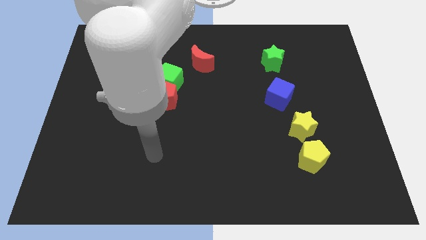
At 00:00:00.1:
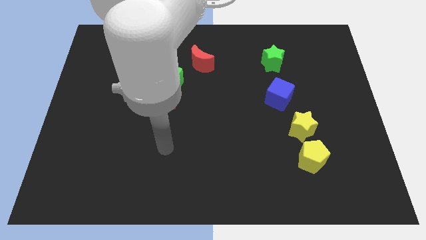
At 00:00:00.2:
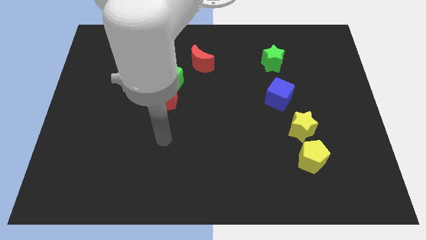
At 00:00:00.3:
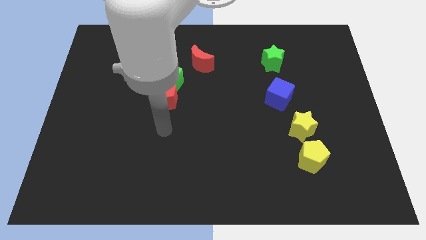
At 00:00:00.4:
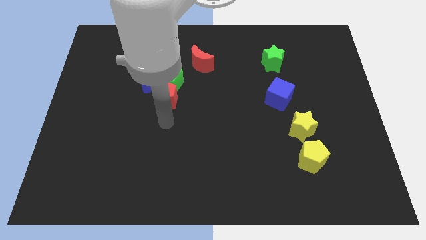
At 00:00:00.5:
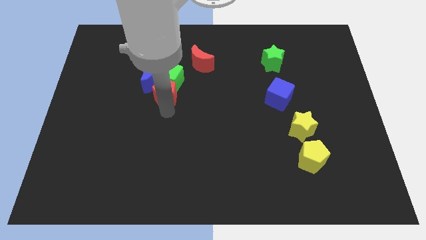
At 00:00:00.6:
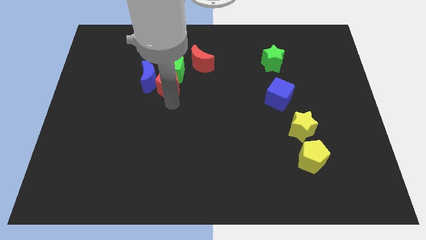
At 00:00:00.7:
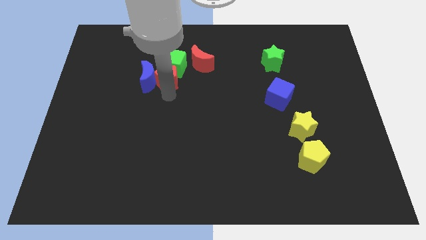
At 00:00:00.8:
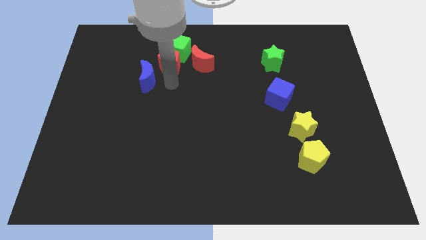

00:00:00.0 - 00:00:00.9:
separate the blue moon from the green cube and red pentagon

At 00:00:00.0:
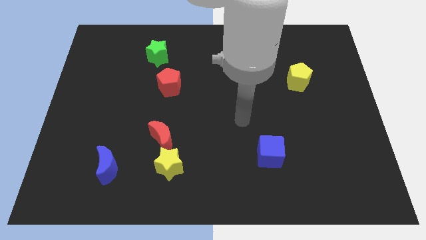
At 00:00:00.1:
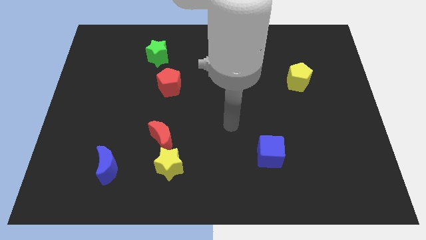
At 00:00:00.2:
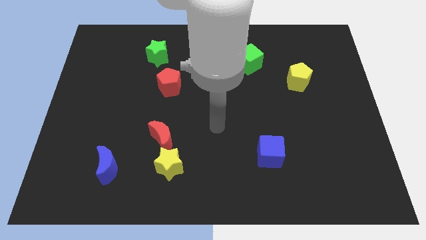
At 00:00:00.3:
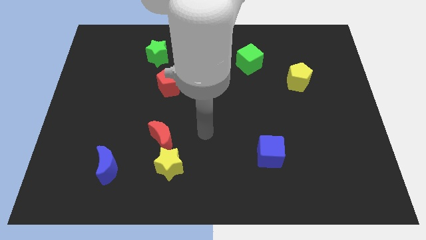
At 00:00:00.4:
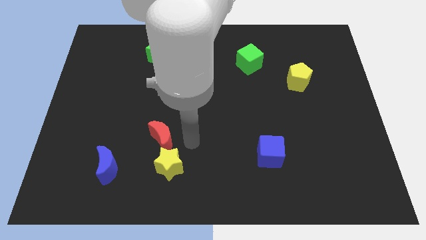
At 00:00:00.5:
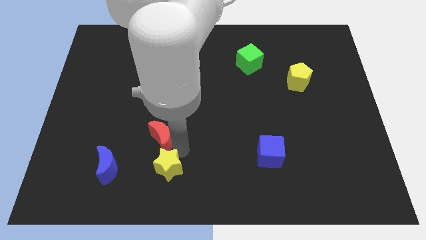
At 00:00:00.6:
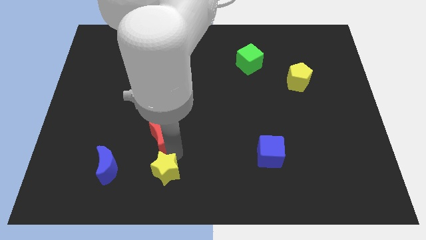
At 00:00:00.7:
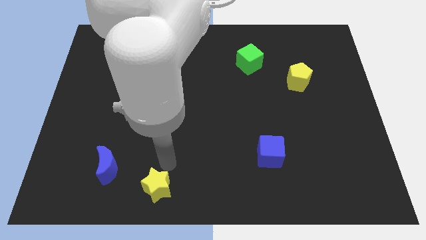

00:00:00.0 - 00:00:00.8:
pull the red moon apart from the yellow star

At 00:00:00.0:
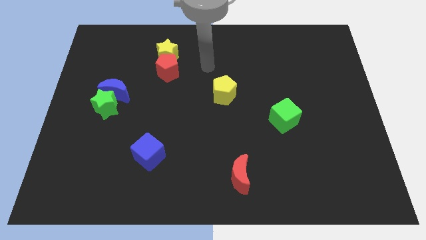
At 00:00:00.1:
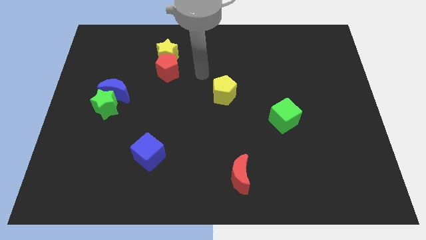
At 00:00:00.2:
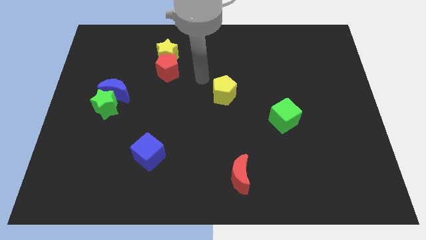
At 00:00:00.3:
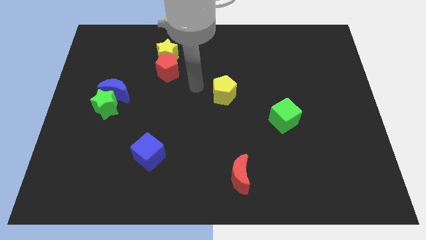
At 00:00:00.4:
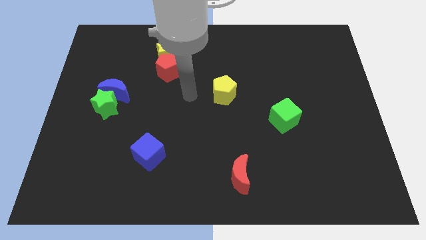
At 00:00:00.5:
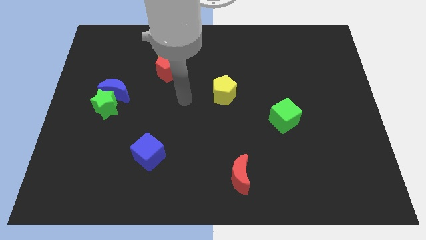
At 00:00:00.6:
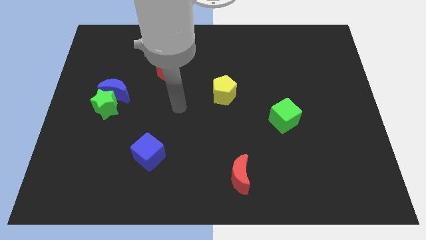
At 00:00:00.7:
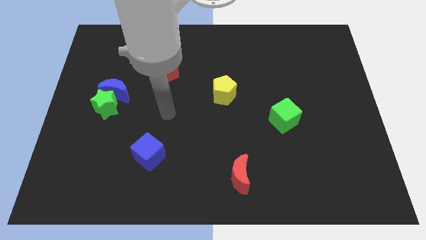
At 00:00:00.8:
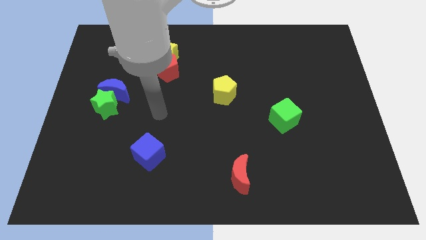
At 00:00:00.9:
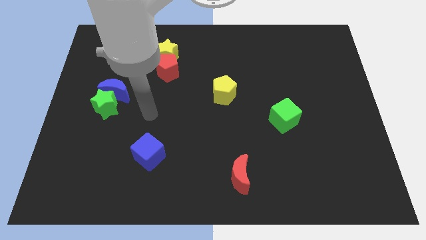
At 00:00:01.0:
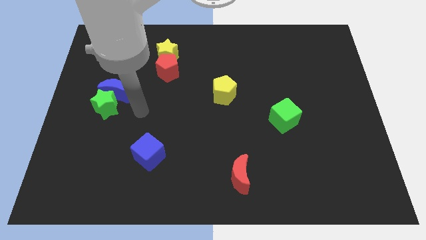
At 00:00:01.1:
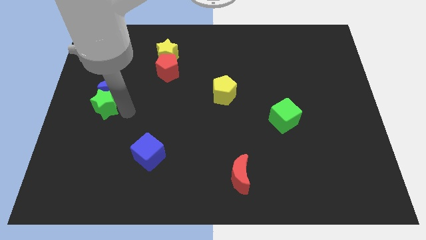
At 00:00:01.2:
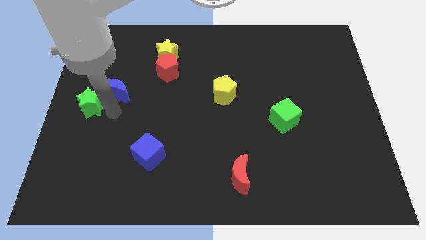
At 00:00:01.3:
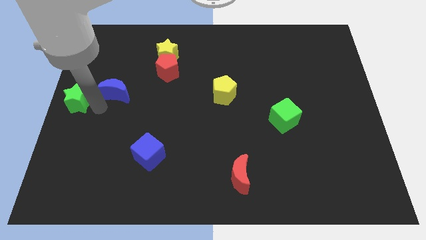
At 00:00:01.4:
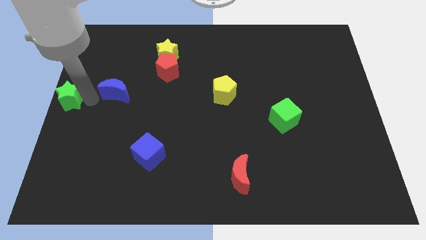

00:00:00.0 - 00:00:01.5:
separate the blue moon from the green star

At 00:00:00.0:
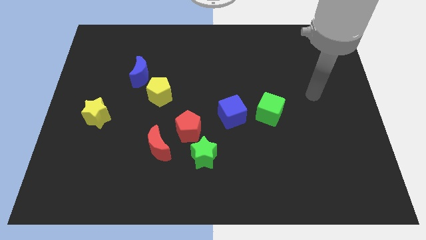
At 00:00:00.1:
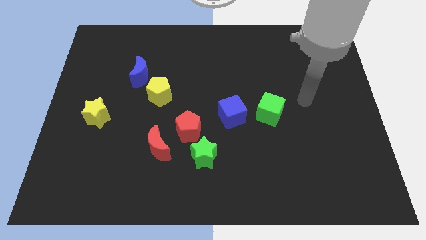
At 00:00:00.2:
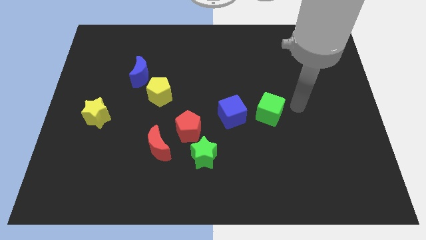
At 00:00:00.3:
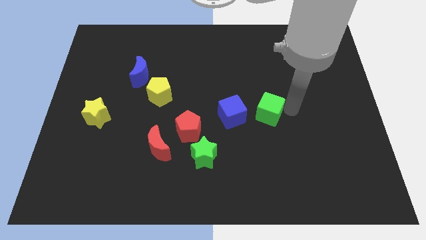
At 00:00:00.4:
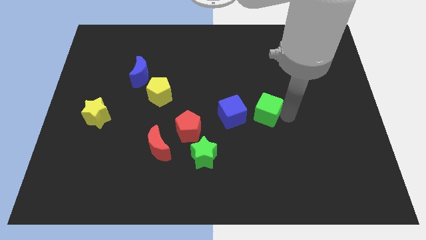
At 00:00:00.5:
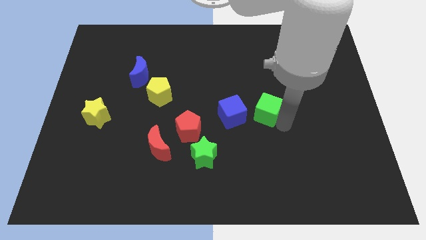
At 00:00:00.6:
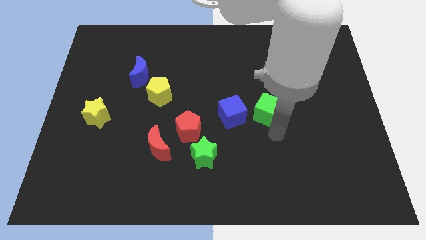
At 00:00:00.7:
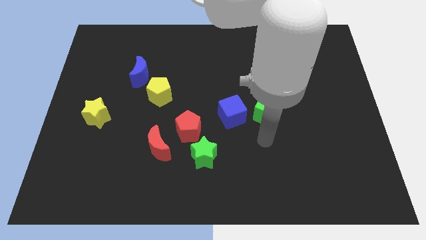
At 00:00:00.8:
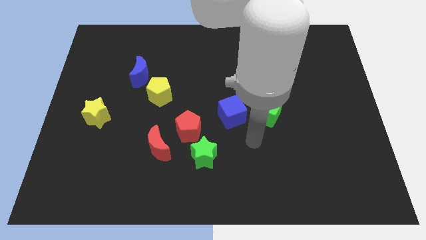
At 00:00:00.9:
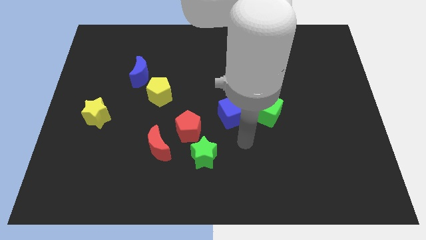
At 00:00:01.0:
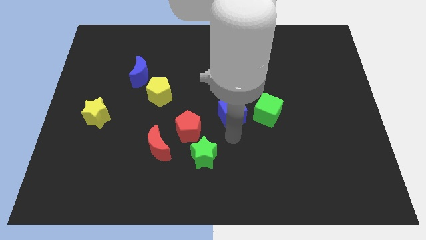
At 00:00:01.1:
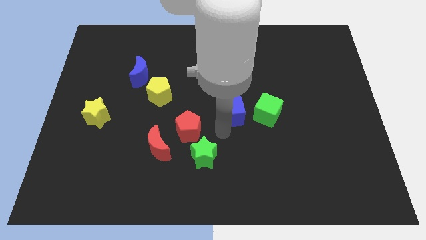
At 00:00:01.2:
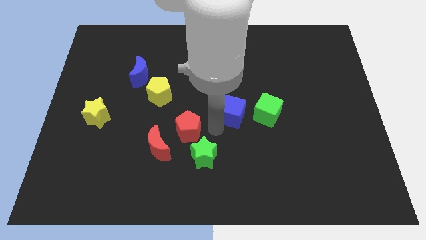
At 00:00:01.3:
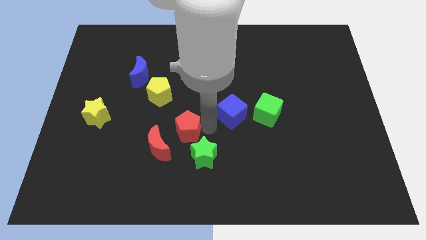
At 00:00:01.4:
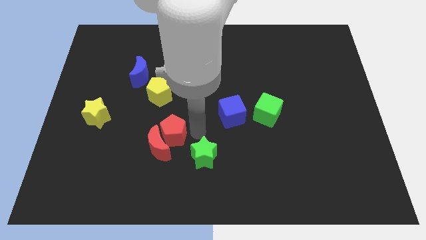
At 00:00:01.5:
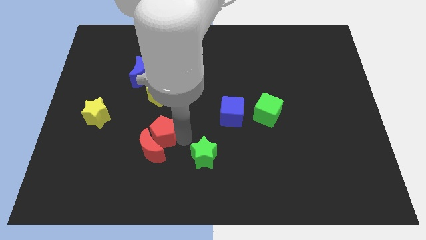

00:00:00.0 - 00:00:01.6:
move the green star away from the red pentagon

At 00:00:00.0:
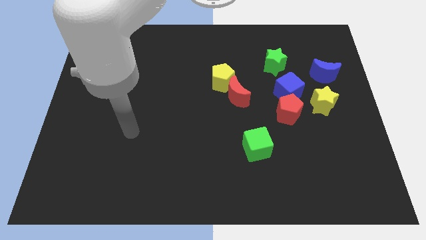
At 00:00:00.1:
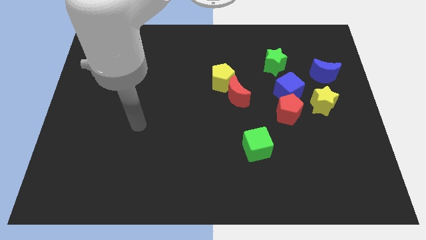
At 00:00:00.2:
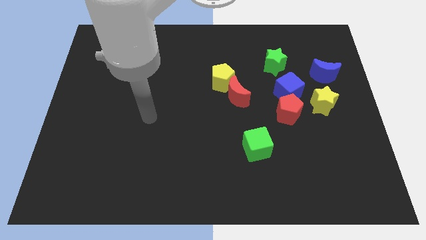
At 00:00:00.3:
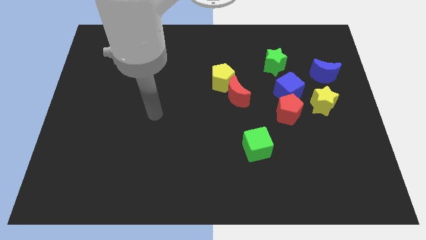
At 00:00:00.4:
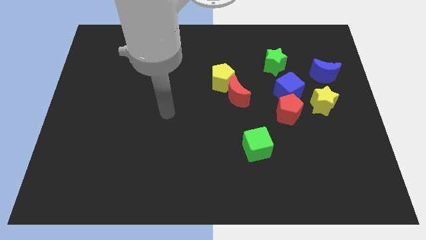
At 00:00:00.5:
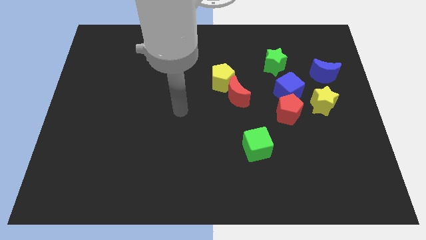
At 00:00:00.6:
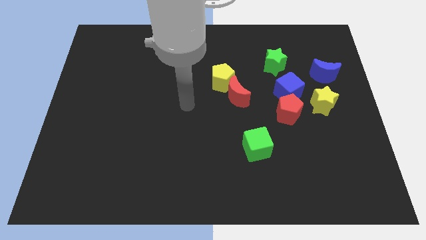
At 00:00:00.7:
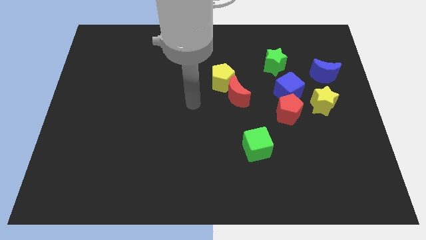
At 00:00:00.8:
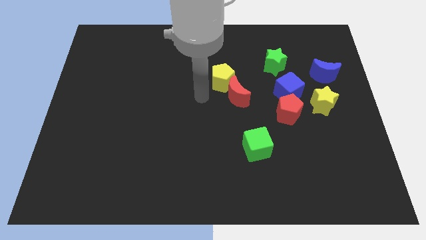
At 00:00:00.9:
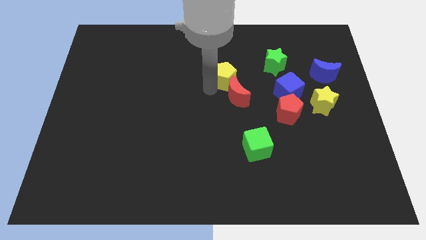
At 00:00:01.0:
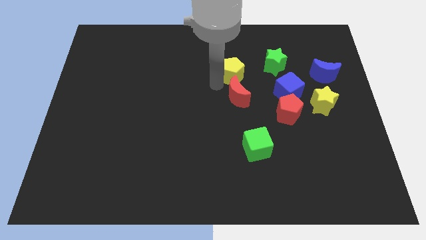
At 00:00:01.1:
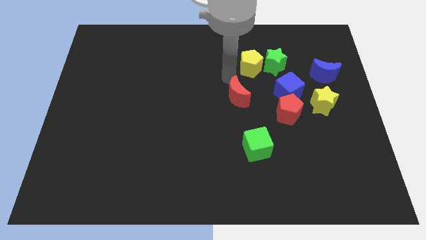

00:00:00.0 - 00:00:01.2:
move the red moon away from the yellow pentagon

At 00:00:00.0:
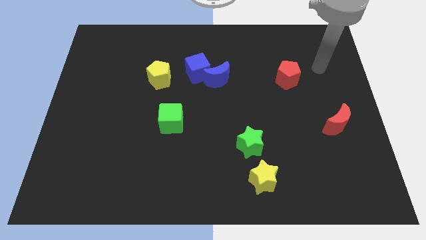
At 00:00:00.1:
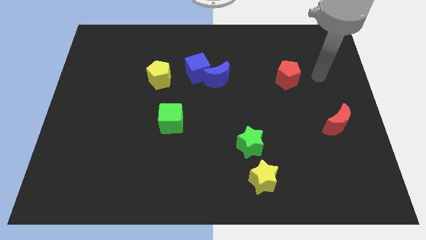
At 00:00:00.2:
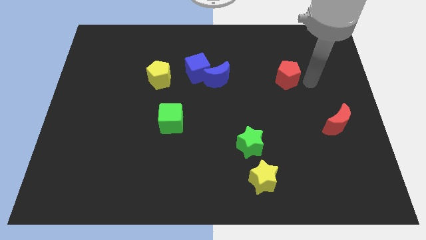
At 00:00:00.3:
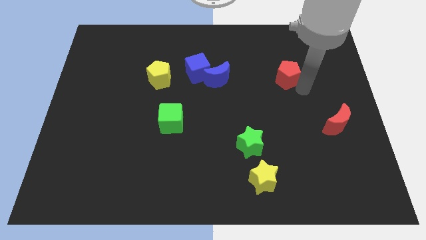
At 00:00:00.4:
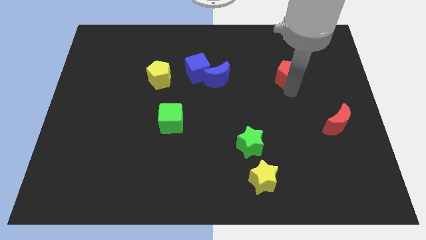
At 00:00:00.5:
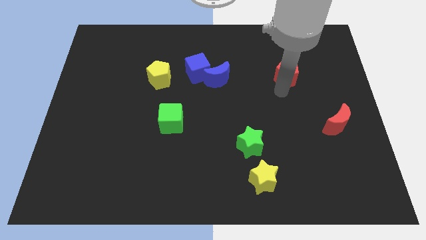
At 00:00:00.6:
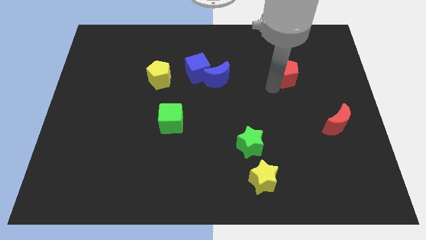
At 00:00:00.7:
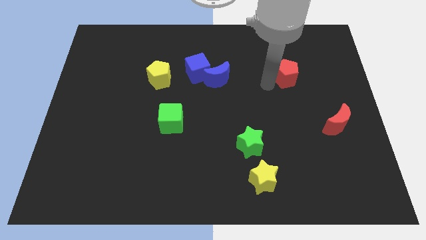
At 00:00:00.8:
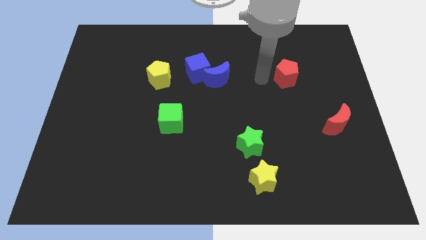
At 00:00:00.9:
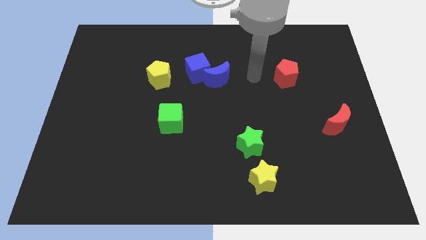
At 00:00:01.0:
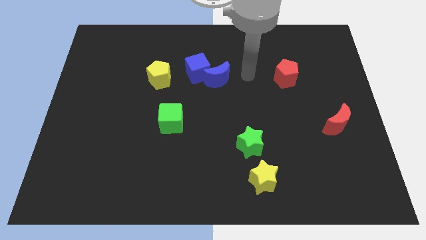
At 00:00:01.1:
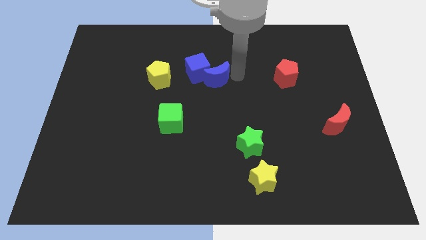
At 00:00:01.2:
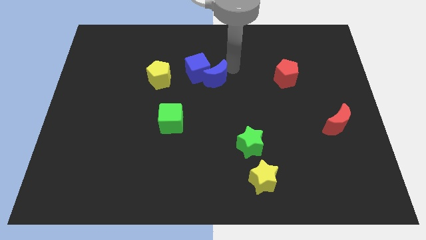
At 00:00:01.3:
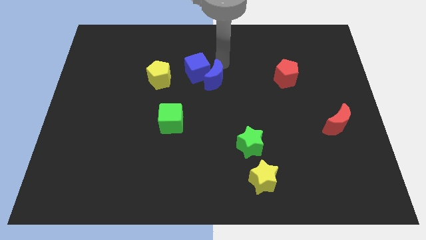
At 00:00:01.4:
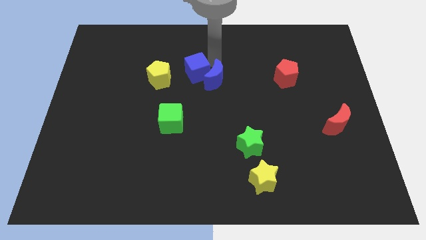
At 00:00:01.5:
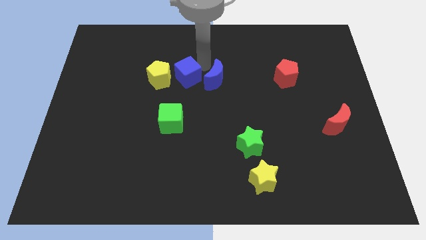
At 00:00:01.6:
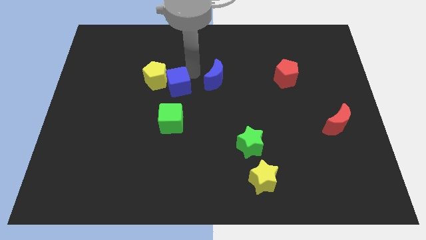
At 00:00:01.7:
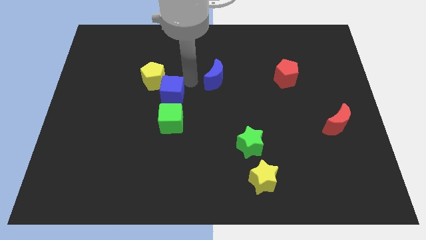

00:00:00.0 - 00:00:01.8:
move the blue moon away from the blue cube

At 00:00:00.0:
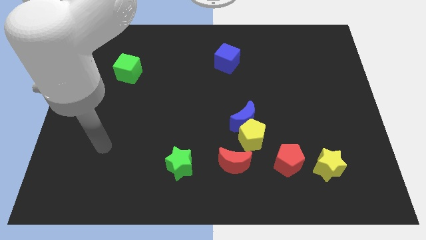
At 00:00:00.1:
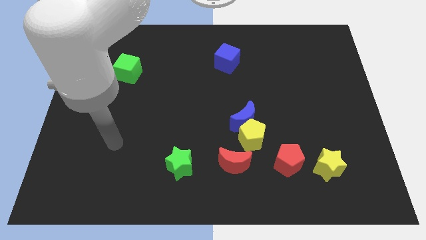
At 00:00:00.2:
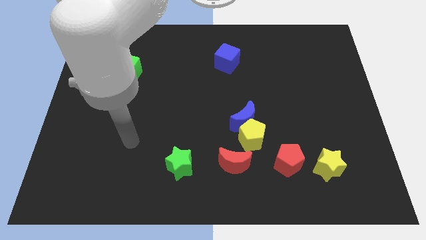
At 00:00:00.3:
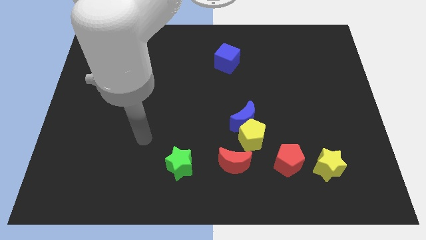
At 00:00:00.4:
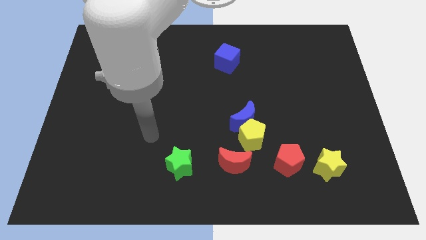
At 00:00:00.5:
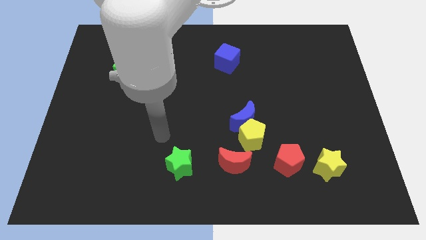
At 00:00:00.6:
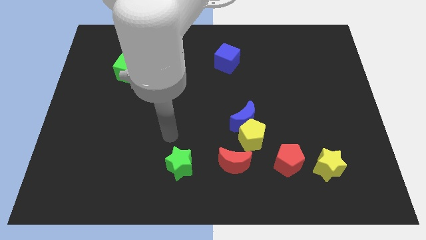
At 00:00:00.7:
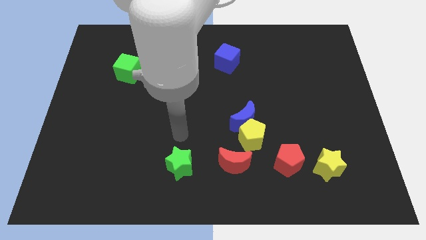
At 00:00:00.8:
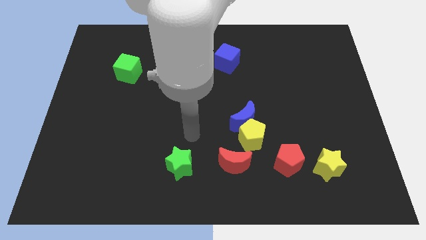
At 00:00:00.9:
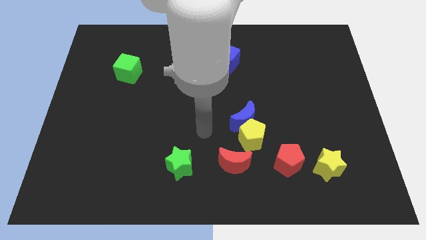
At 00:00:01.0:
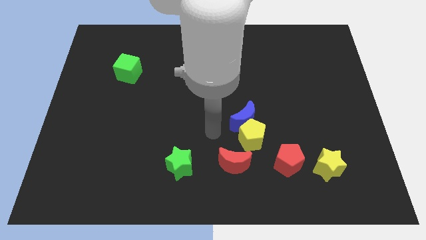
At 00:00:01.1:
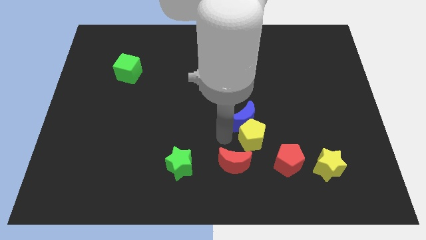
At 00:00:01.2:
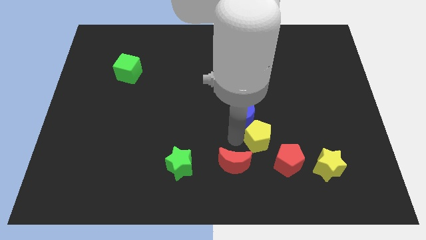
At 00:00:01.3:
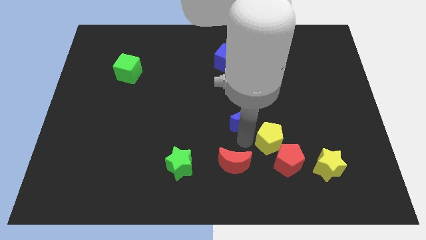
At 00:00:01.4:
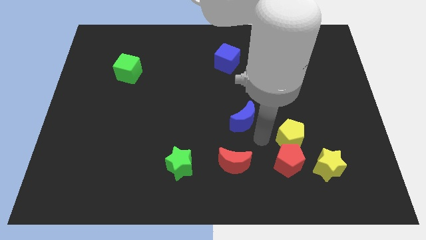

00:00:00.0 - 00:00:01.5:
separate the blue moon from the yellow pentagon
